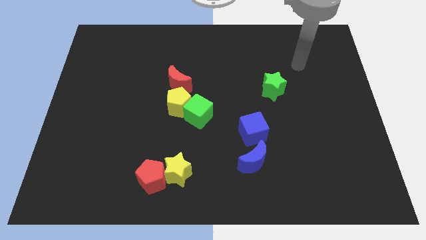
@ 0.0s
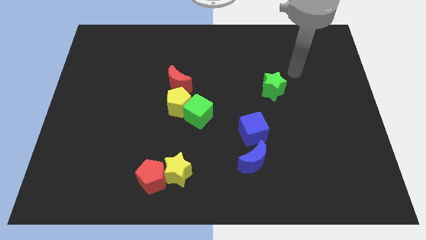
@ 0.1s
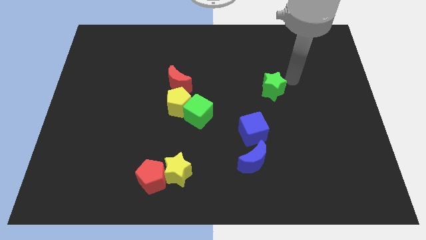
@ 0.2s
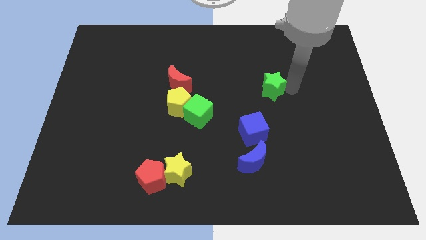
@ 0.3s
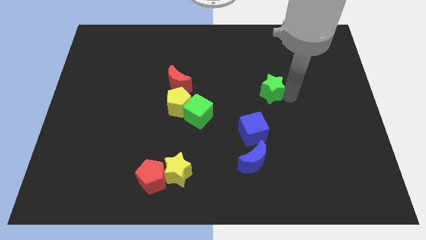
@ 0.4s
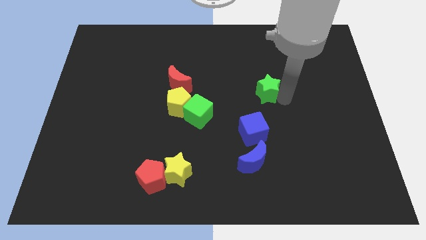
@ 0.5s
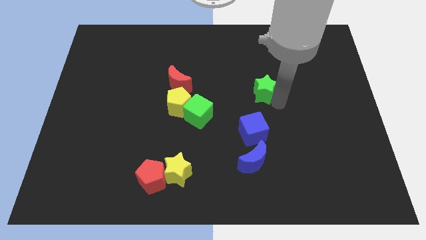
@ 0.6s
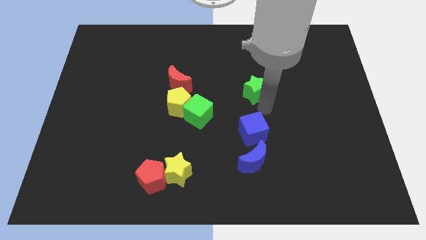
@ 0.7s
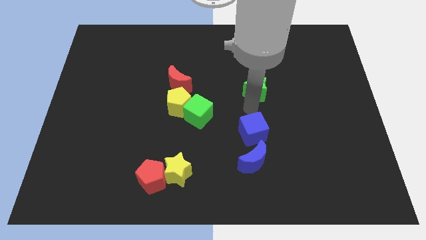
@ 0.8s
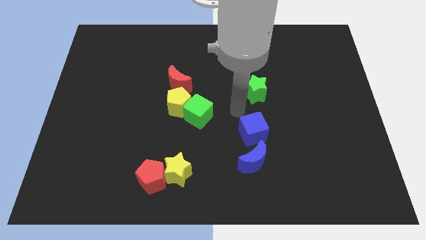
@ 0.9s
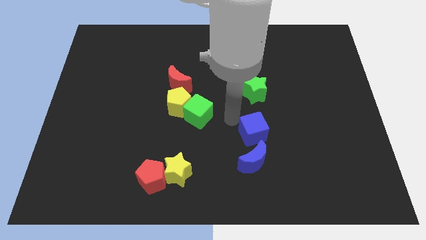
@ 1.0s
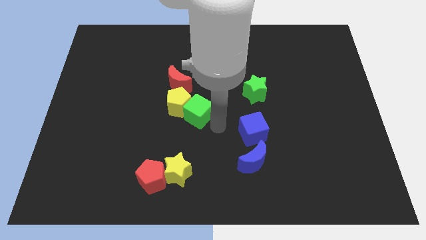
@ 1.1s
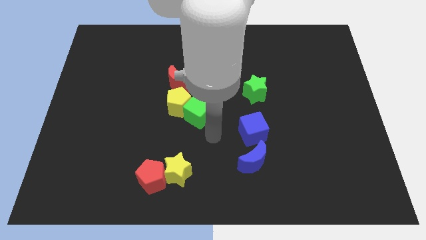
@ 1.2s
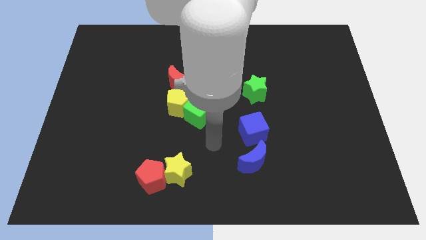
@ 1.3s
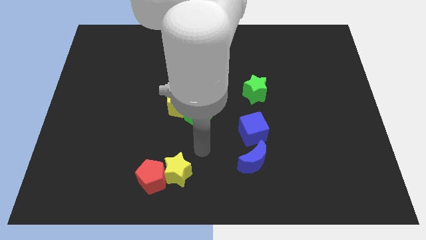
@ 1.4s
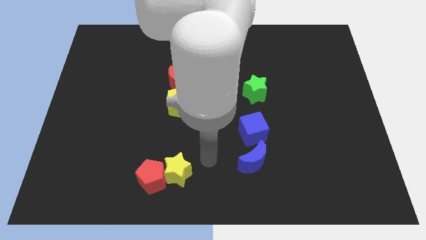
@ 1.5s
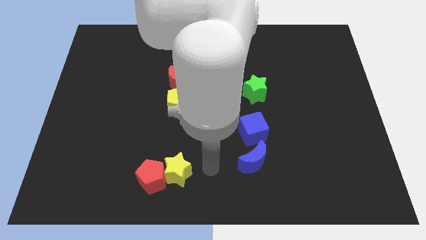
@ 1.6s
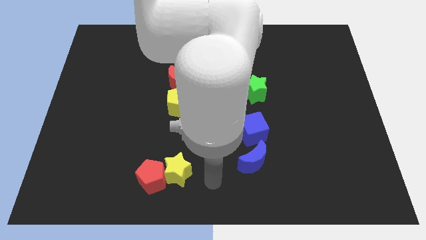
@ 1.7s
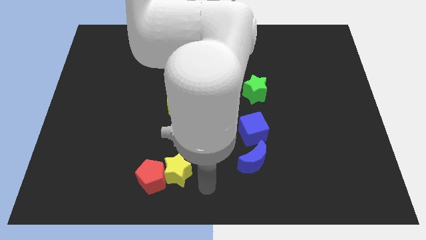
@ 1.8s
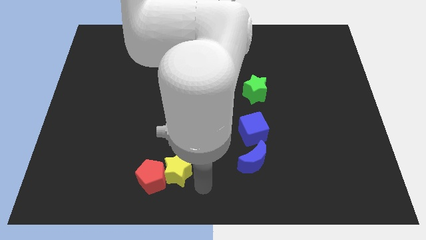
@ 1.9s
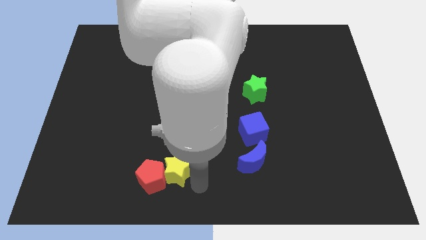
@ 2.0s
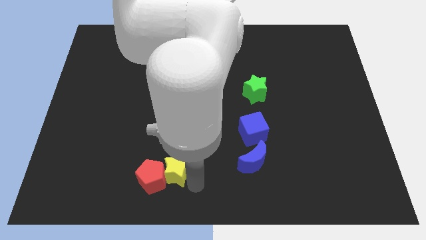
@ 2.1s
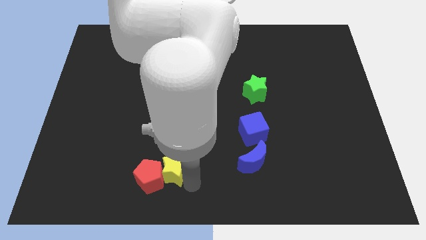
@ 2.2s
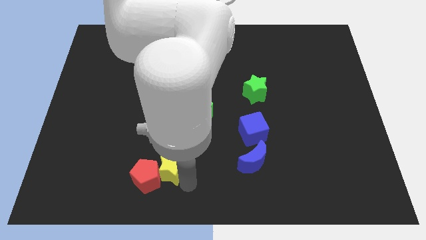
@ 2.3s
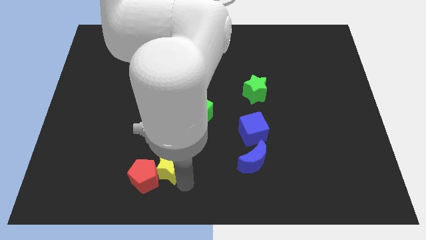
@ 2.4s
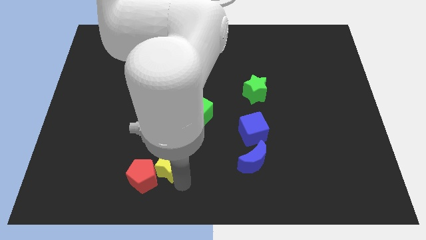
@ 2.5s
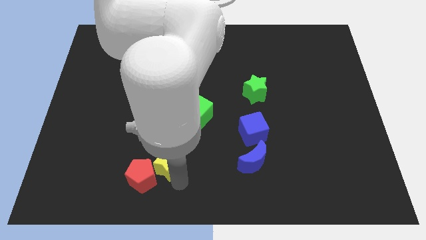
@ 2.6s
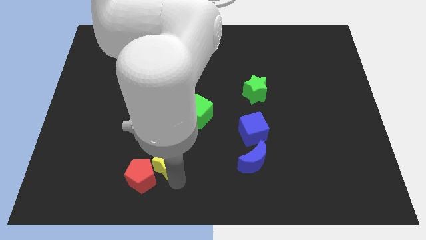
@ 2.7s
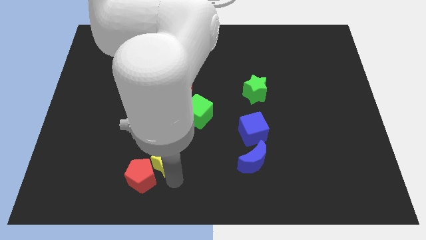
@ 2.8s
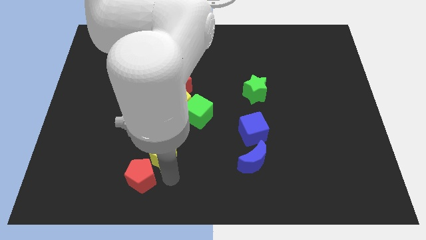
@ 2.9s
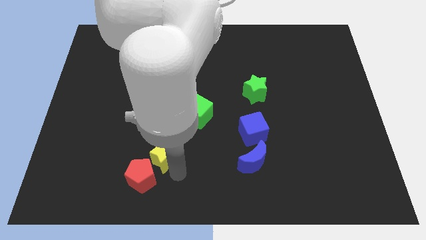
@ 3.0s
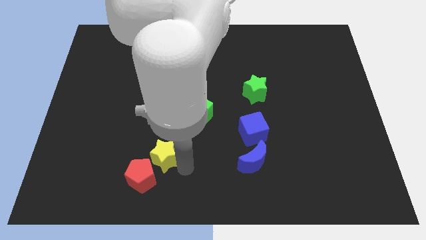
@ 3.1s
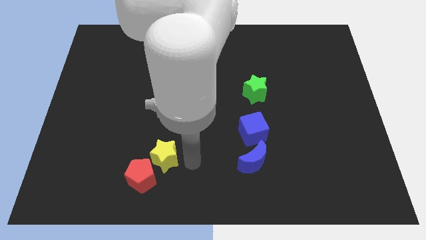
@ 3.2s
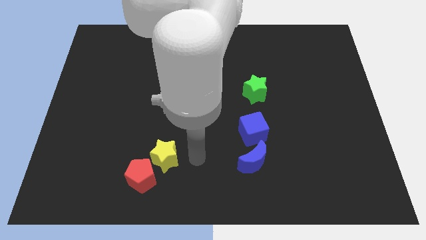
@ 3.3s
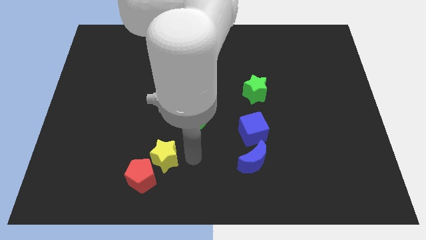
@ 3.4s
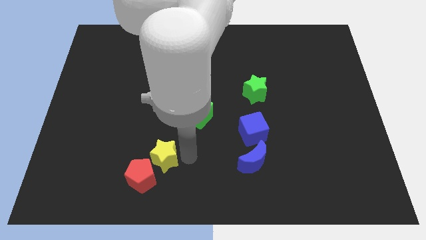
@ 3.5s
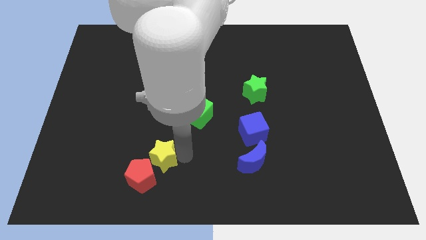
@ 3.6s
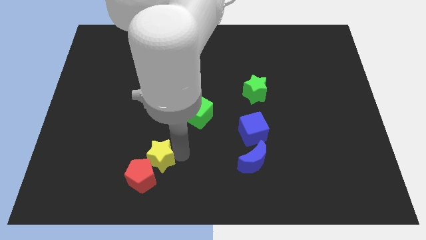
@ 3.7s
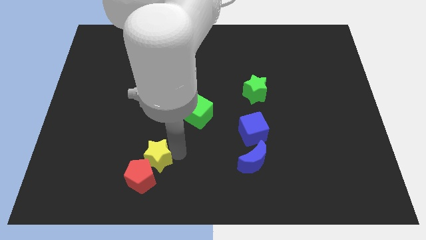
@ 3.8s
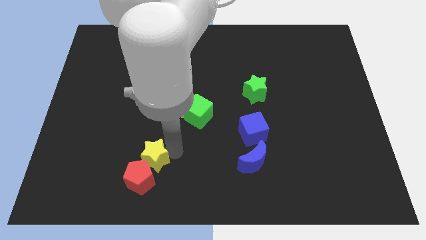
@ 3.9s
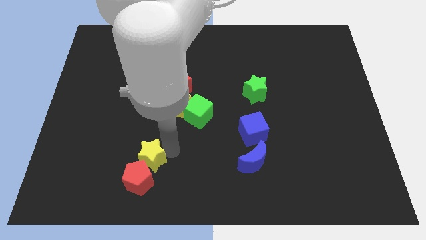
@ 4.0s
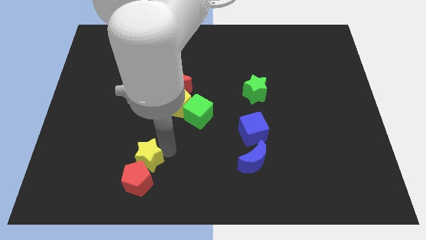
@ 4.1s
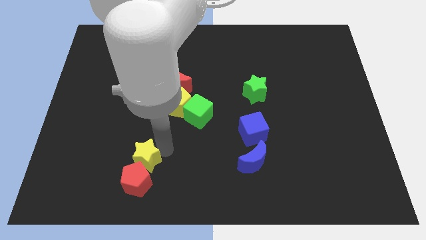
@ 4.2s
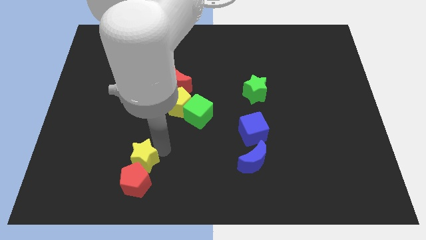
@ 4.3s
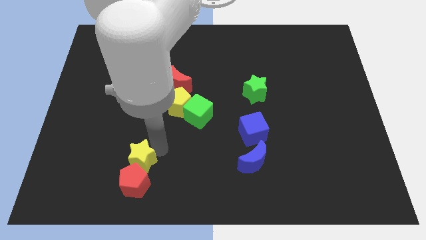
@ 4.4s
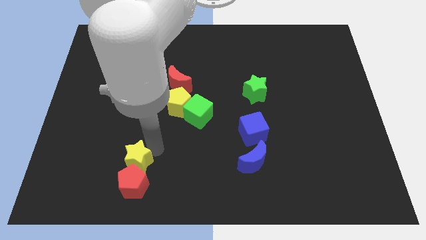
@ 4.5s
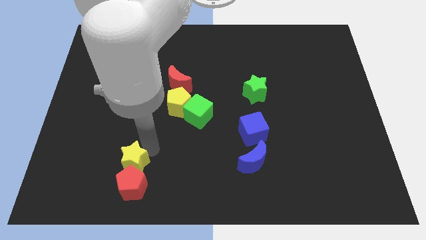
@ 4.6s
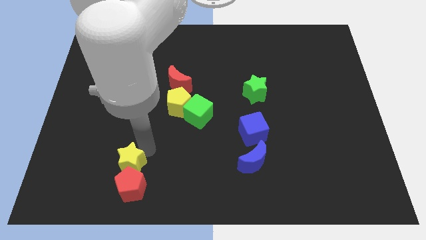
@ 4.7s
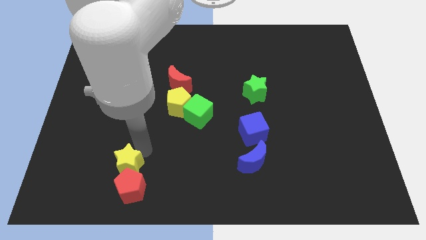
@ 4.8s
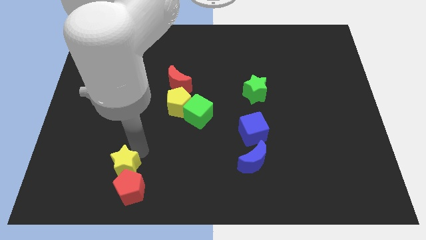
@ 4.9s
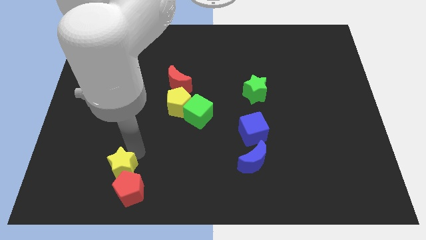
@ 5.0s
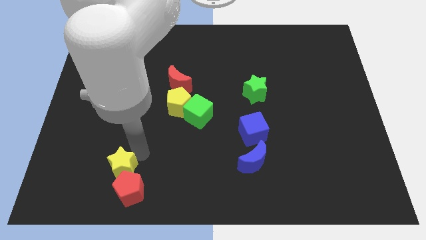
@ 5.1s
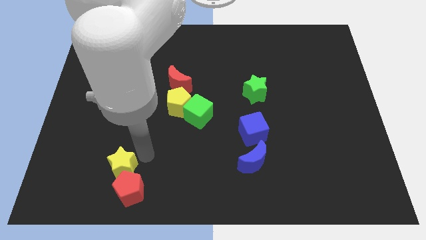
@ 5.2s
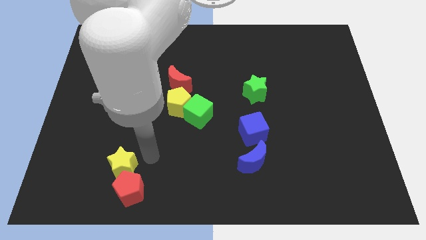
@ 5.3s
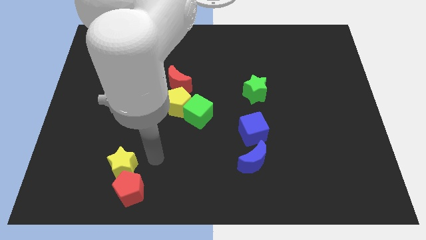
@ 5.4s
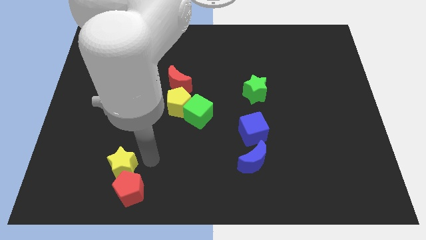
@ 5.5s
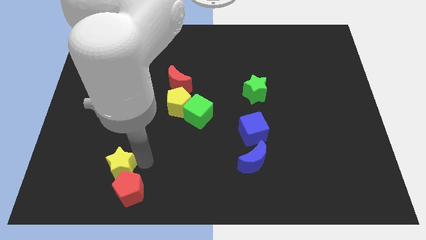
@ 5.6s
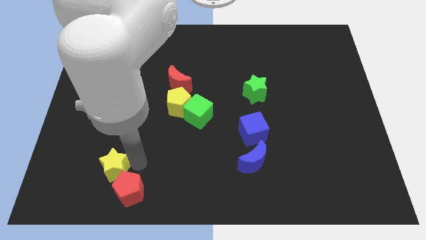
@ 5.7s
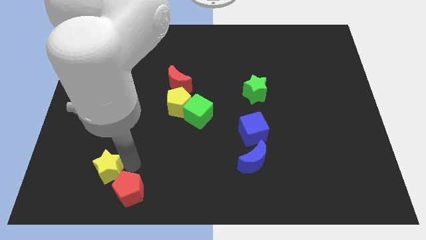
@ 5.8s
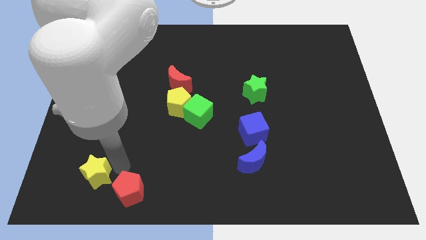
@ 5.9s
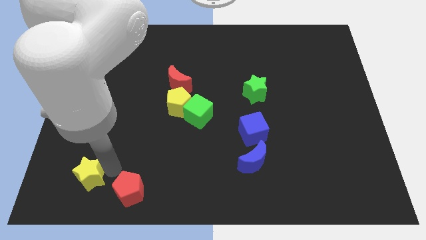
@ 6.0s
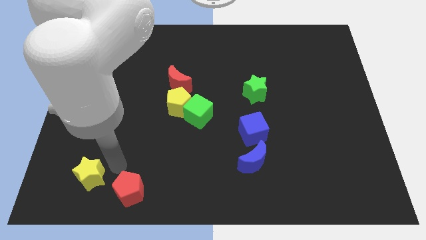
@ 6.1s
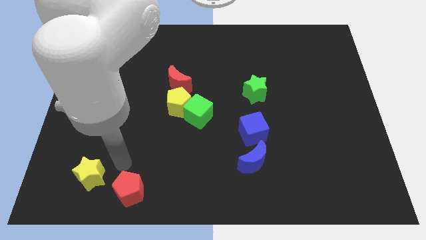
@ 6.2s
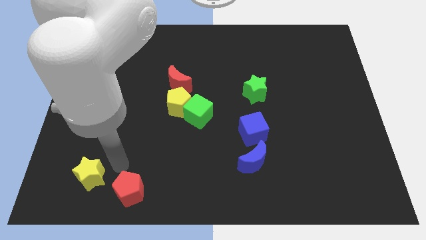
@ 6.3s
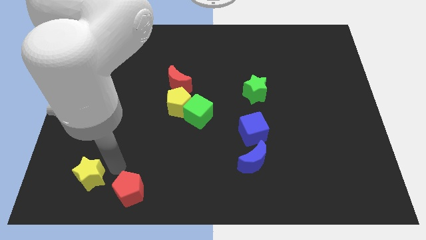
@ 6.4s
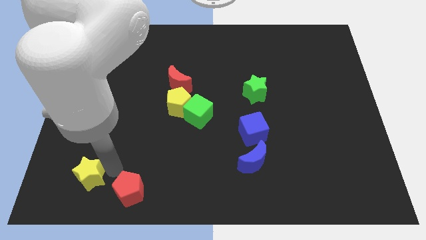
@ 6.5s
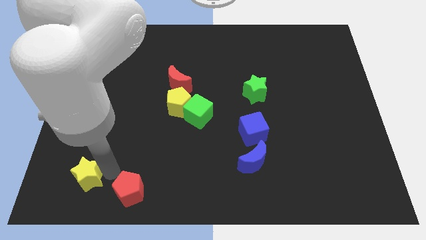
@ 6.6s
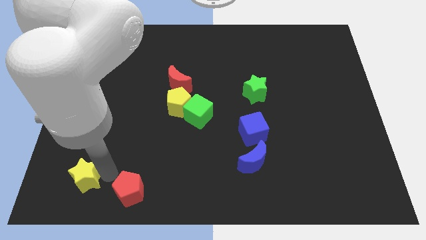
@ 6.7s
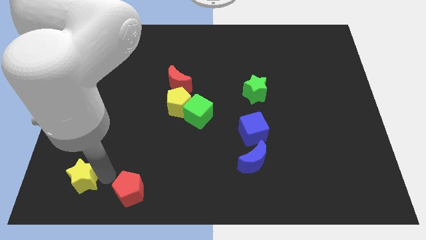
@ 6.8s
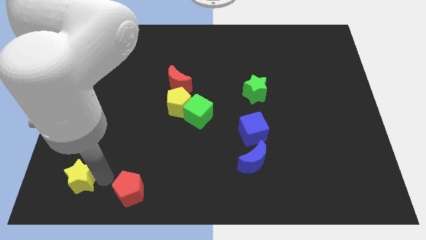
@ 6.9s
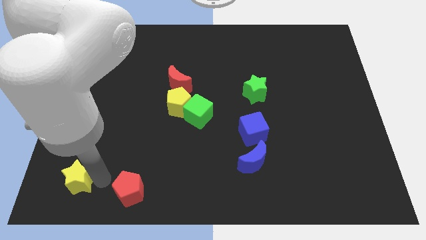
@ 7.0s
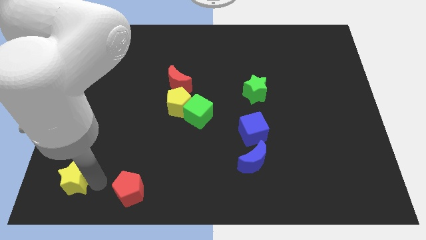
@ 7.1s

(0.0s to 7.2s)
push the yellow star to the lower left corner
